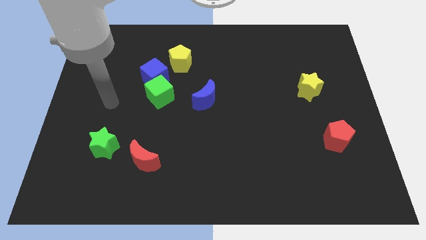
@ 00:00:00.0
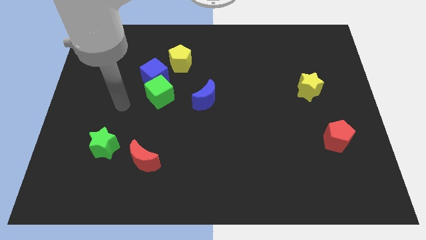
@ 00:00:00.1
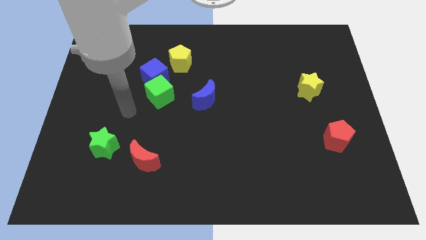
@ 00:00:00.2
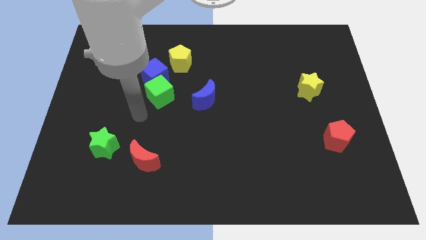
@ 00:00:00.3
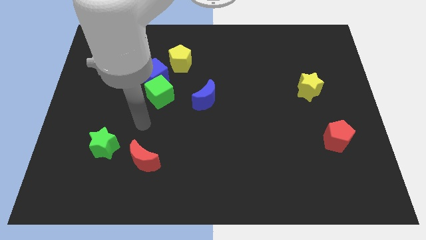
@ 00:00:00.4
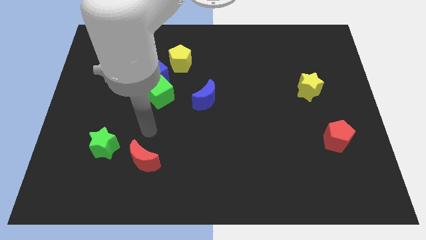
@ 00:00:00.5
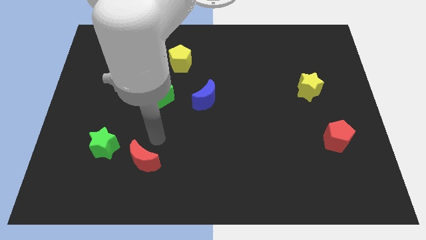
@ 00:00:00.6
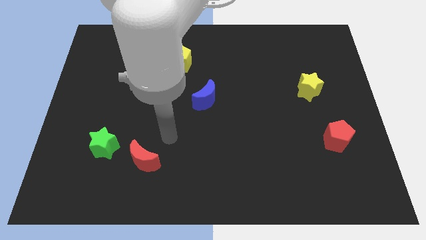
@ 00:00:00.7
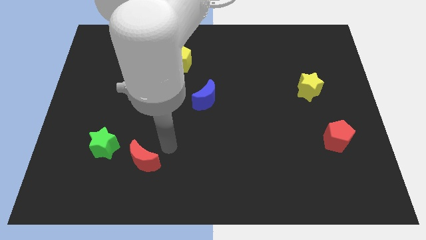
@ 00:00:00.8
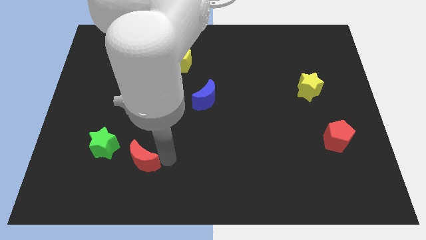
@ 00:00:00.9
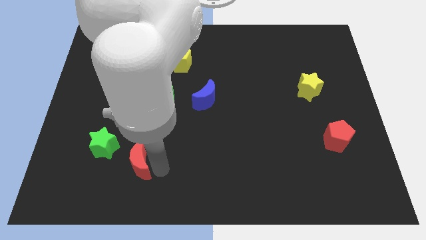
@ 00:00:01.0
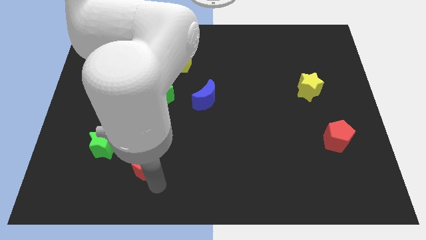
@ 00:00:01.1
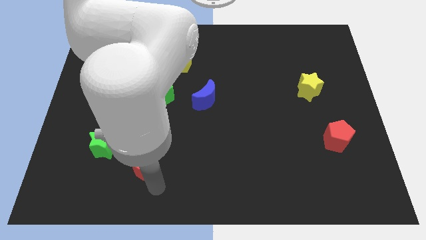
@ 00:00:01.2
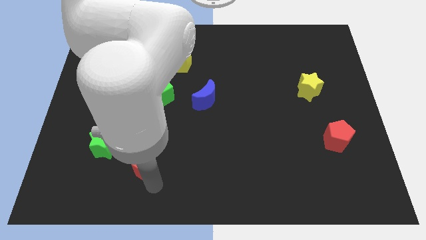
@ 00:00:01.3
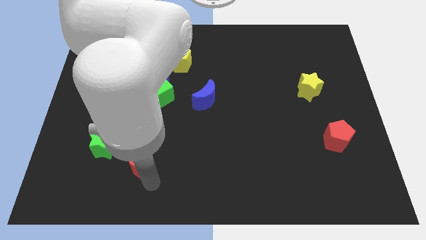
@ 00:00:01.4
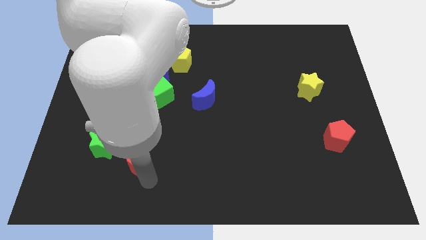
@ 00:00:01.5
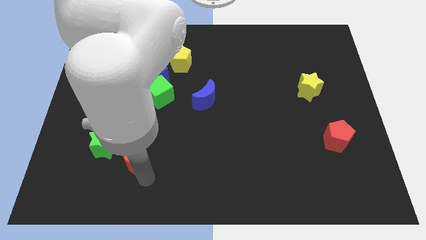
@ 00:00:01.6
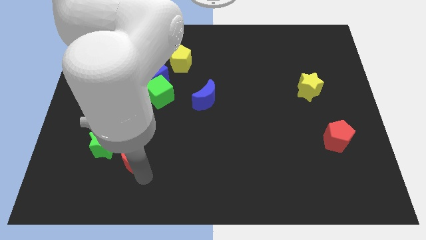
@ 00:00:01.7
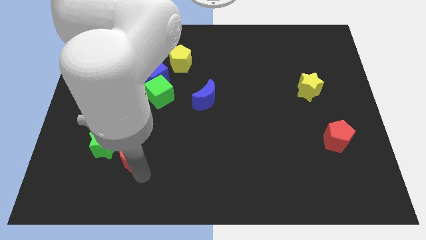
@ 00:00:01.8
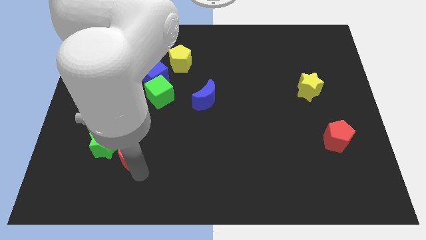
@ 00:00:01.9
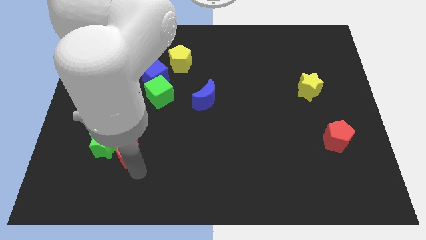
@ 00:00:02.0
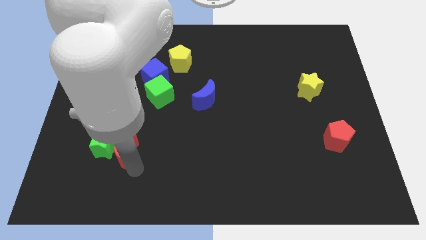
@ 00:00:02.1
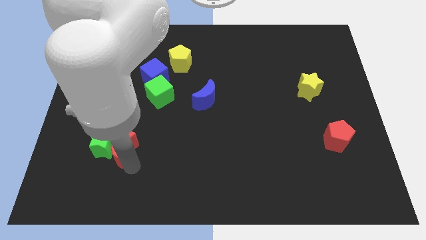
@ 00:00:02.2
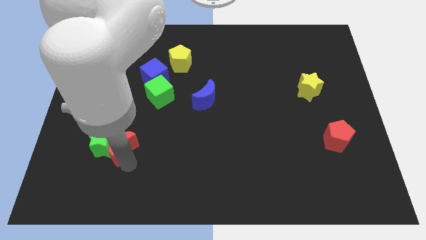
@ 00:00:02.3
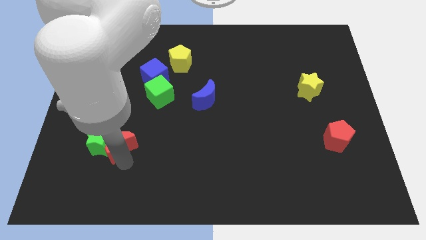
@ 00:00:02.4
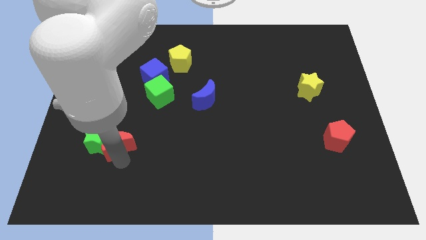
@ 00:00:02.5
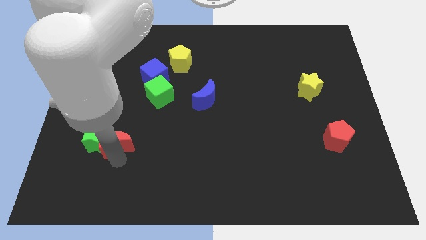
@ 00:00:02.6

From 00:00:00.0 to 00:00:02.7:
move the red moon slightly upwards and to the left diagonally

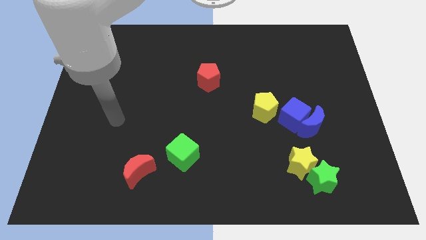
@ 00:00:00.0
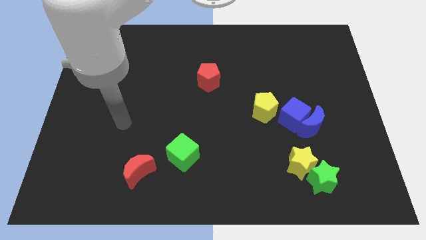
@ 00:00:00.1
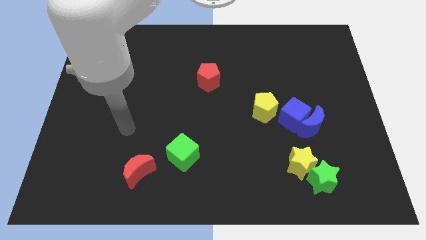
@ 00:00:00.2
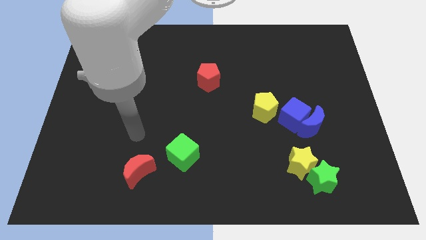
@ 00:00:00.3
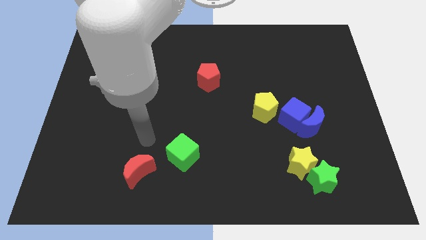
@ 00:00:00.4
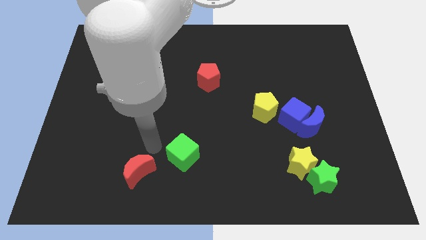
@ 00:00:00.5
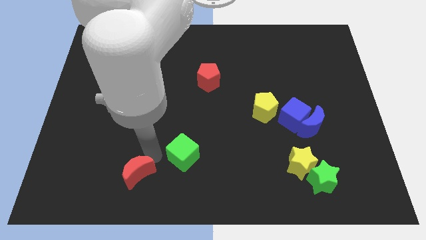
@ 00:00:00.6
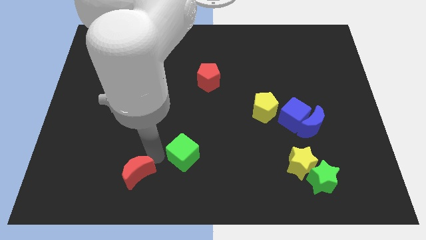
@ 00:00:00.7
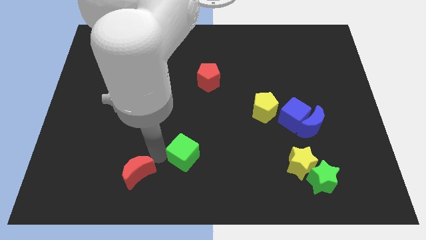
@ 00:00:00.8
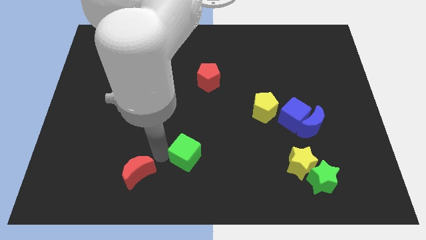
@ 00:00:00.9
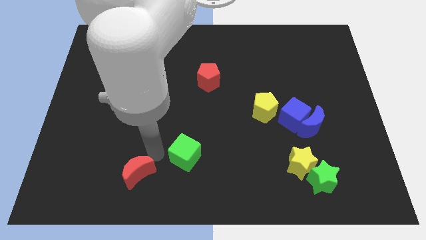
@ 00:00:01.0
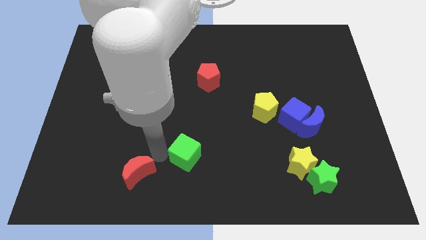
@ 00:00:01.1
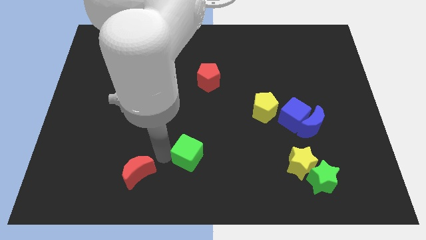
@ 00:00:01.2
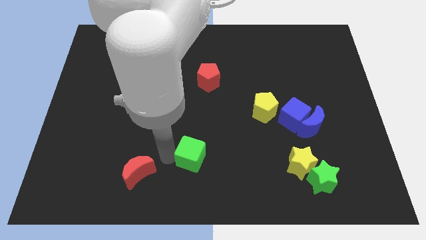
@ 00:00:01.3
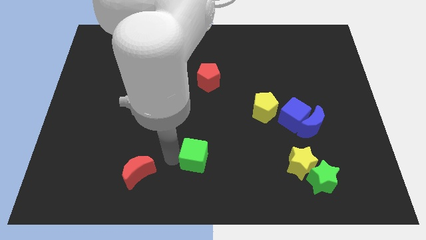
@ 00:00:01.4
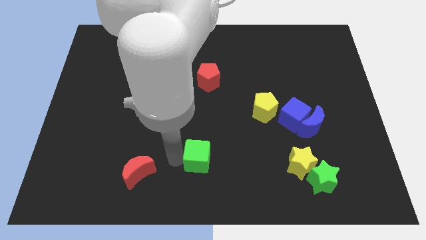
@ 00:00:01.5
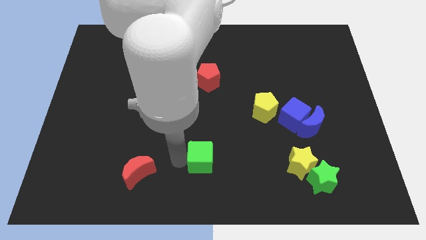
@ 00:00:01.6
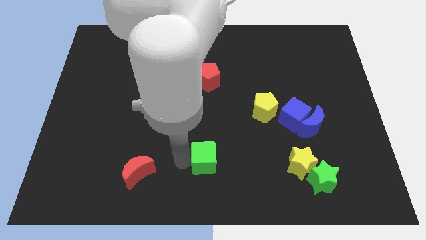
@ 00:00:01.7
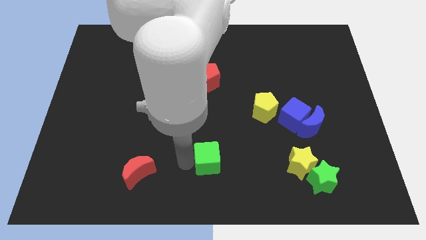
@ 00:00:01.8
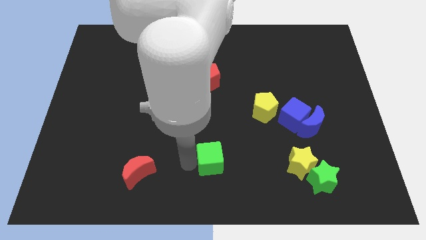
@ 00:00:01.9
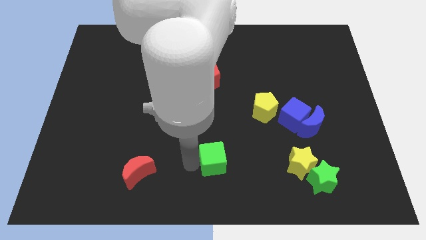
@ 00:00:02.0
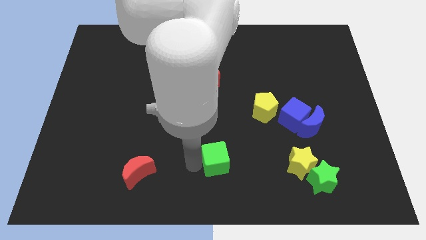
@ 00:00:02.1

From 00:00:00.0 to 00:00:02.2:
move the green cube right somewhat

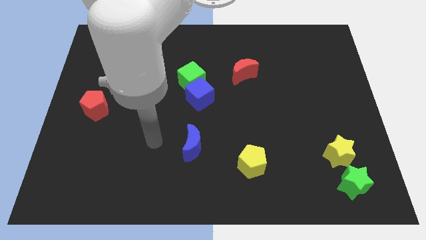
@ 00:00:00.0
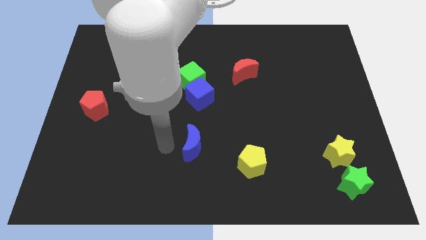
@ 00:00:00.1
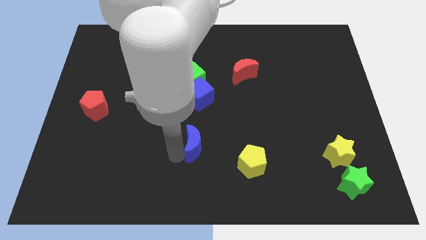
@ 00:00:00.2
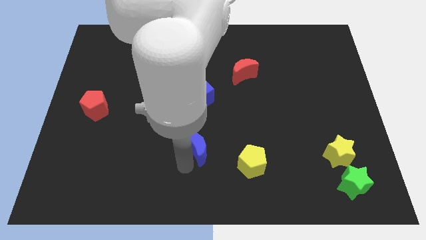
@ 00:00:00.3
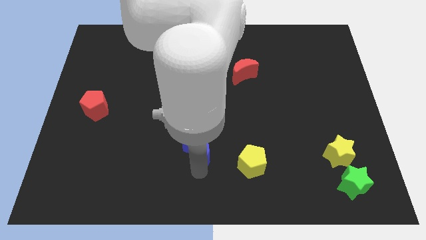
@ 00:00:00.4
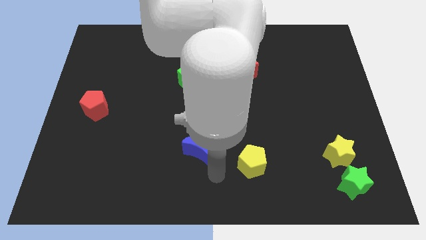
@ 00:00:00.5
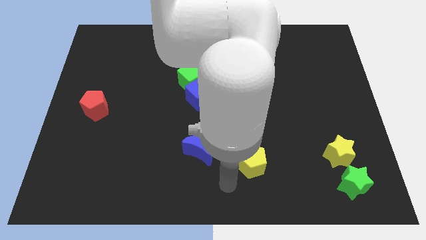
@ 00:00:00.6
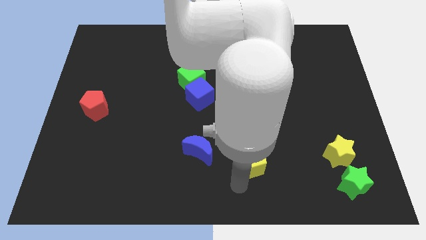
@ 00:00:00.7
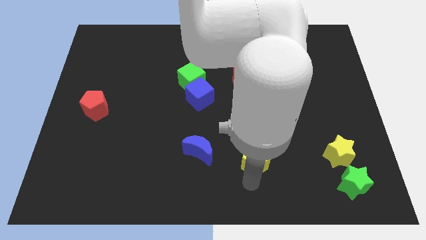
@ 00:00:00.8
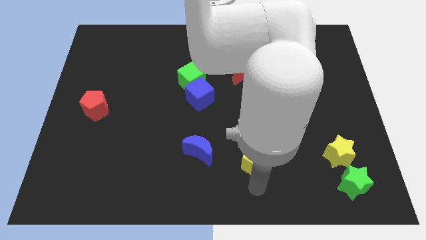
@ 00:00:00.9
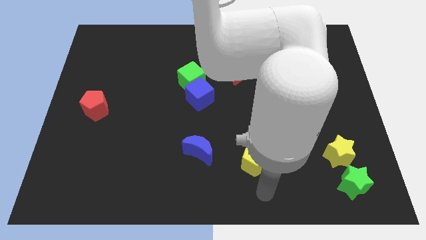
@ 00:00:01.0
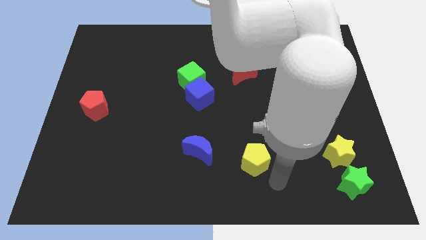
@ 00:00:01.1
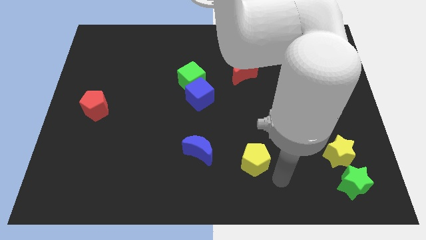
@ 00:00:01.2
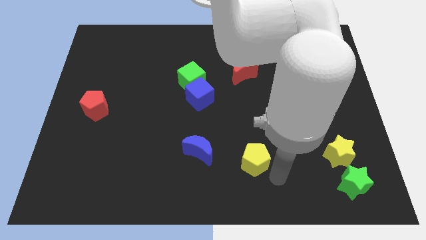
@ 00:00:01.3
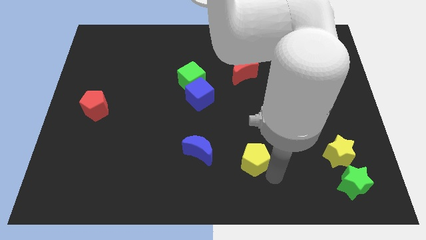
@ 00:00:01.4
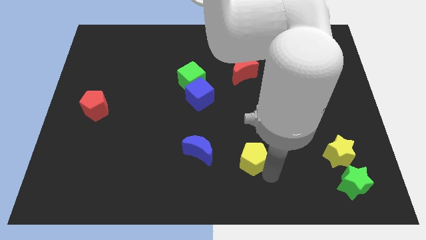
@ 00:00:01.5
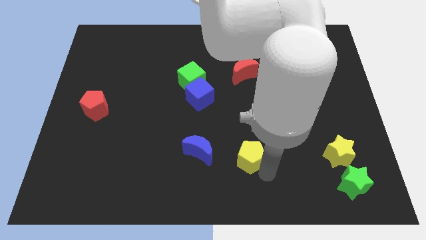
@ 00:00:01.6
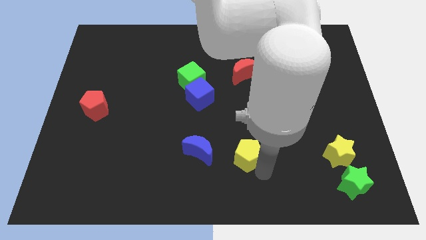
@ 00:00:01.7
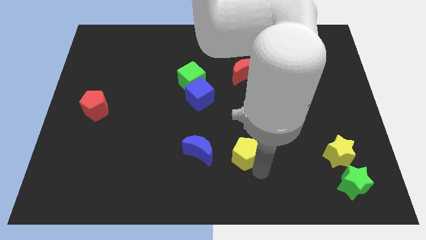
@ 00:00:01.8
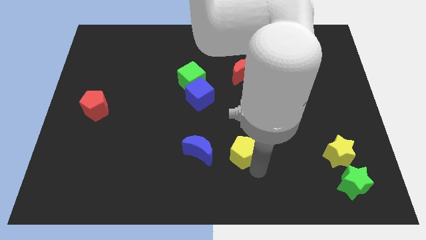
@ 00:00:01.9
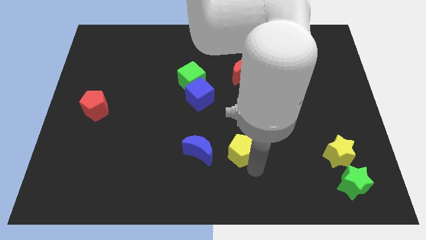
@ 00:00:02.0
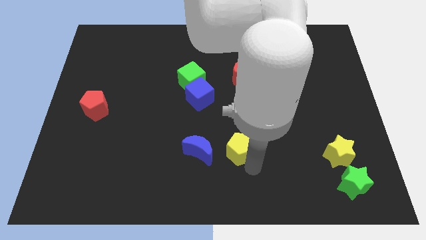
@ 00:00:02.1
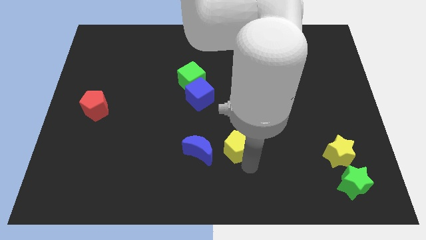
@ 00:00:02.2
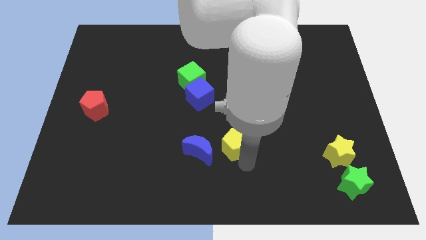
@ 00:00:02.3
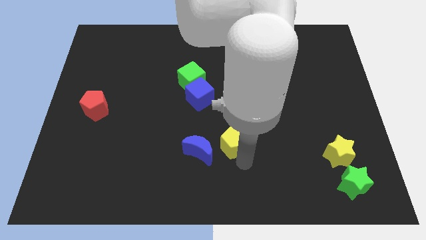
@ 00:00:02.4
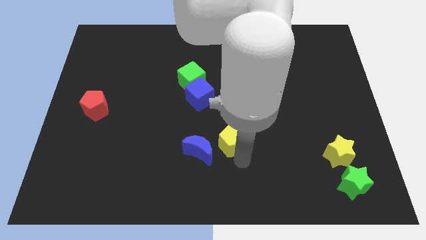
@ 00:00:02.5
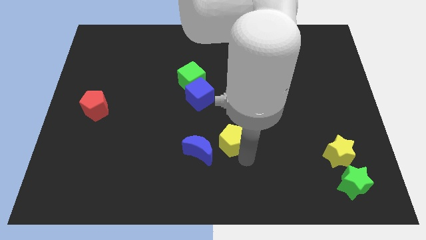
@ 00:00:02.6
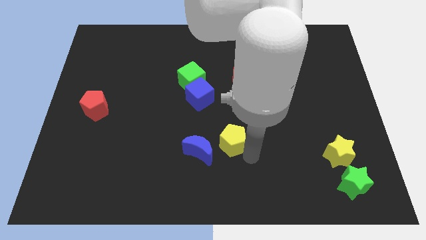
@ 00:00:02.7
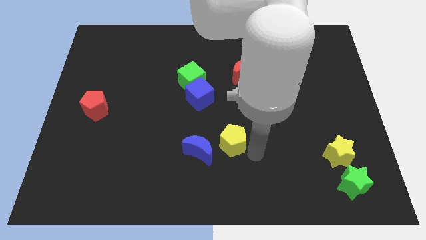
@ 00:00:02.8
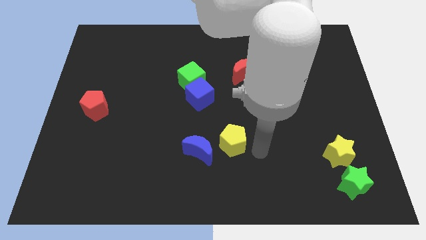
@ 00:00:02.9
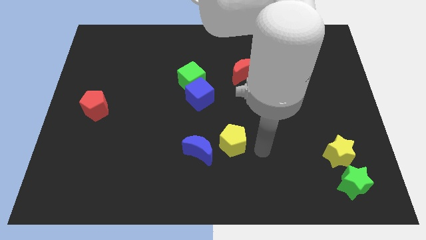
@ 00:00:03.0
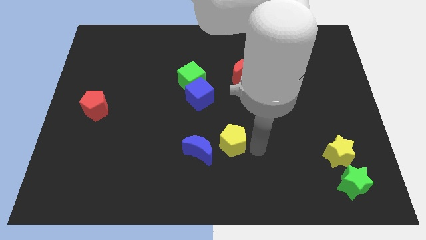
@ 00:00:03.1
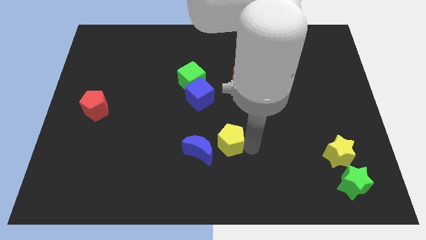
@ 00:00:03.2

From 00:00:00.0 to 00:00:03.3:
push the yellow pentagon somewhat upwards and to the left
